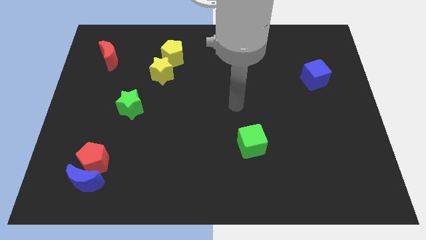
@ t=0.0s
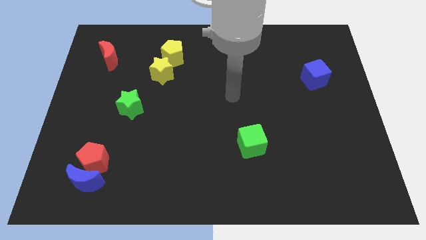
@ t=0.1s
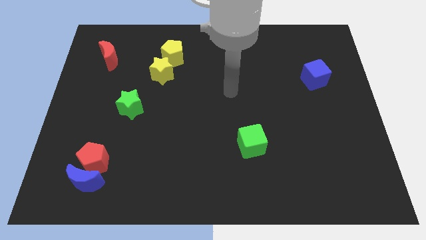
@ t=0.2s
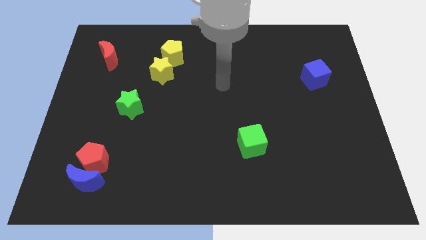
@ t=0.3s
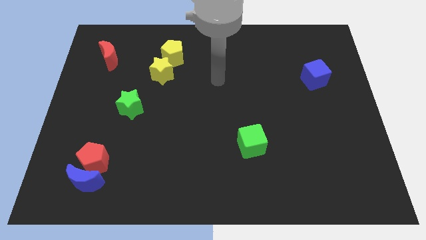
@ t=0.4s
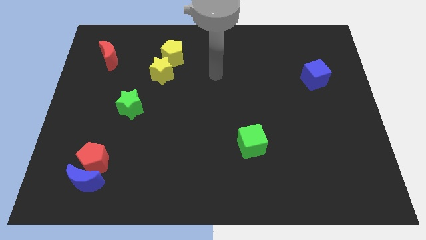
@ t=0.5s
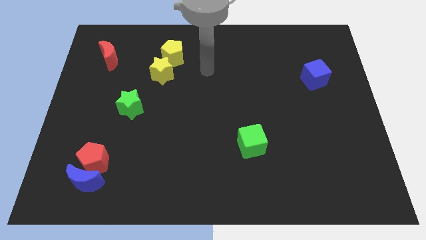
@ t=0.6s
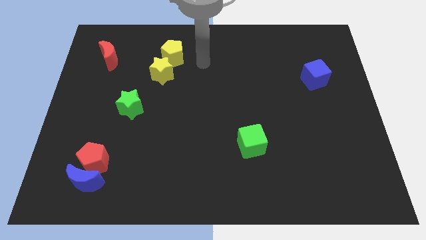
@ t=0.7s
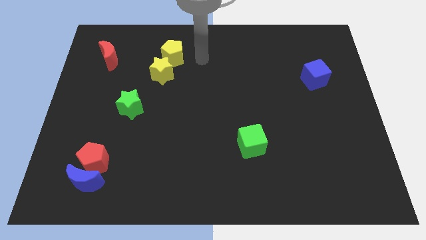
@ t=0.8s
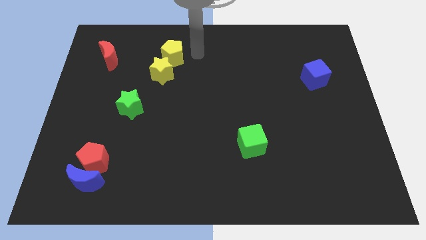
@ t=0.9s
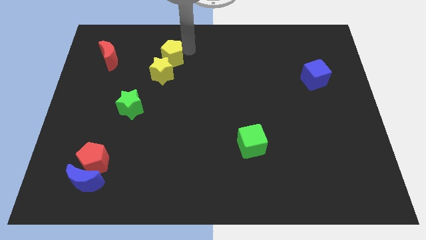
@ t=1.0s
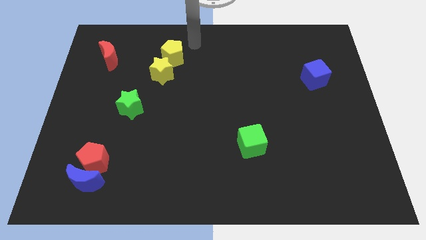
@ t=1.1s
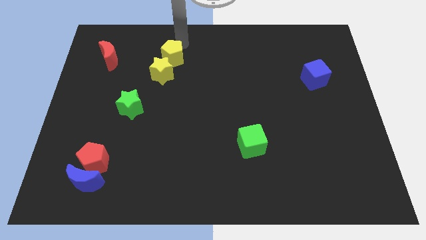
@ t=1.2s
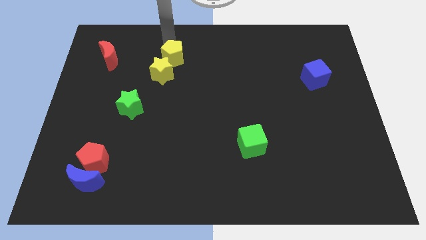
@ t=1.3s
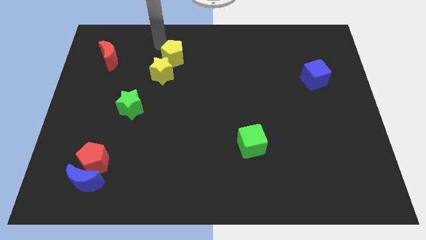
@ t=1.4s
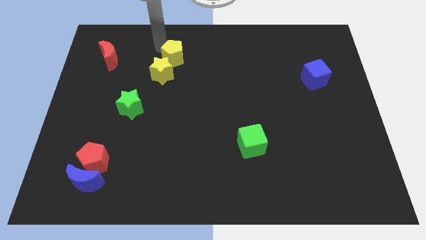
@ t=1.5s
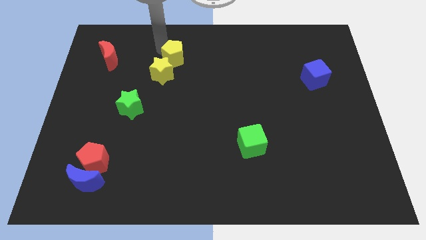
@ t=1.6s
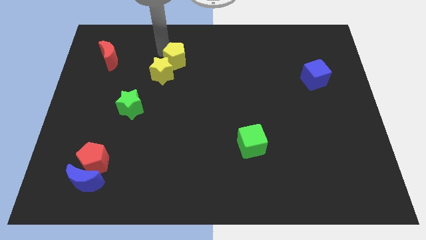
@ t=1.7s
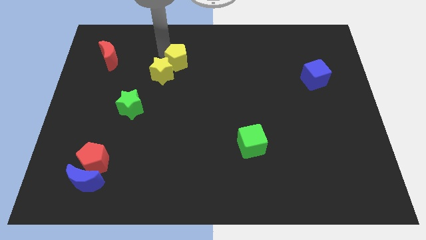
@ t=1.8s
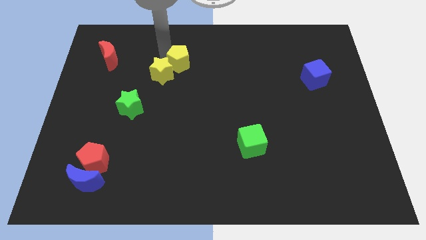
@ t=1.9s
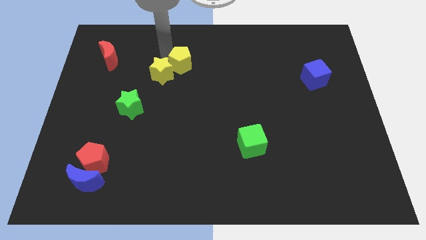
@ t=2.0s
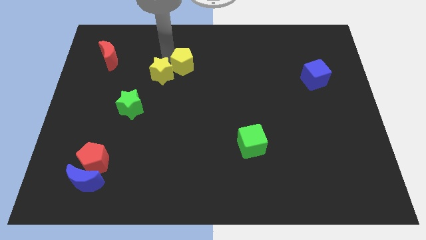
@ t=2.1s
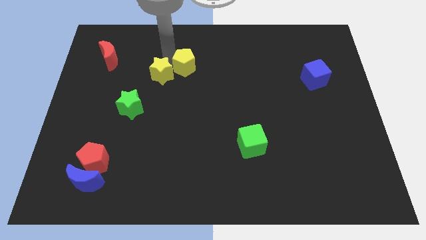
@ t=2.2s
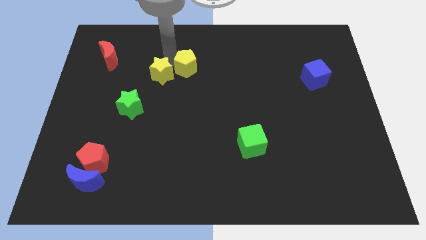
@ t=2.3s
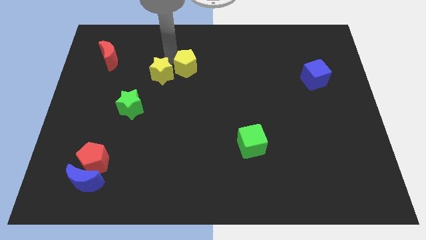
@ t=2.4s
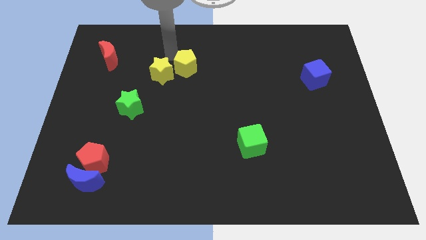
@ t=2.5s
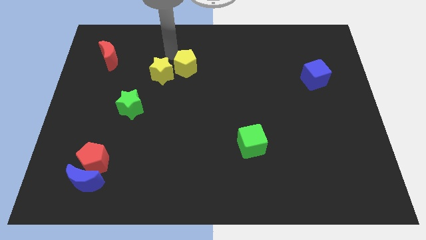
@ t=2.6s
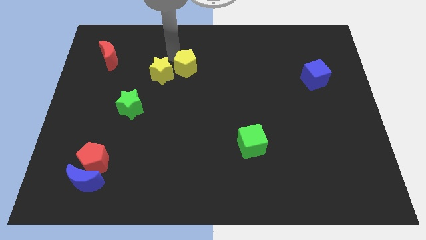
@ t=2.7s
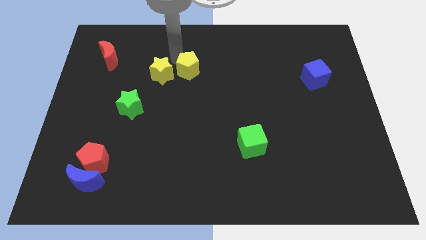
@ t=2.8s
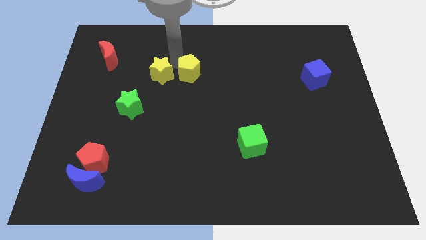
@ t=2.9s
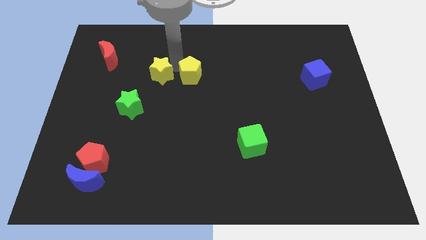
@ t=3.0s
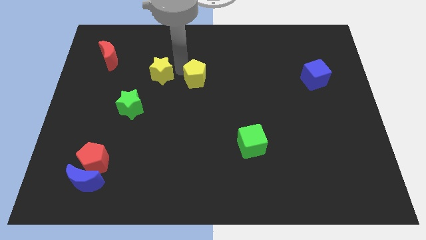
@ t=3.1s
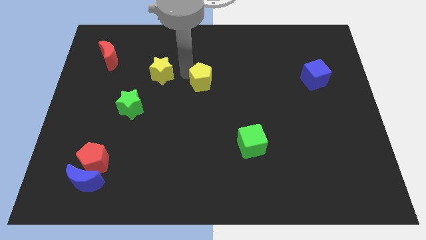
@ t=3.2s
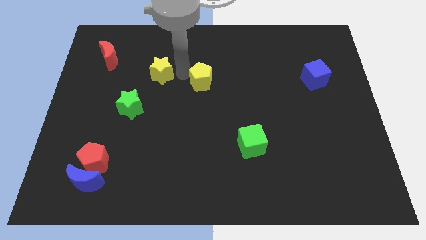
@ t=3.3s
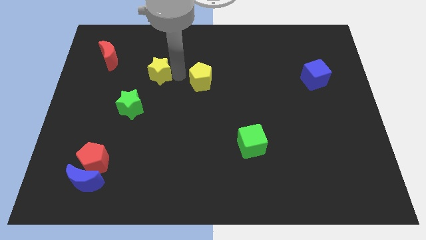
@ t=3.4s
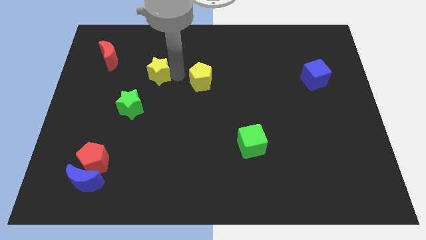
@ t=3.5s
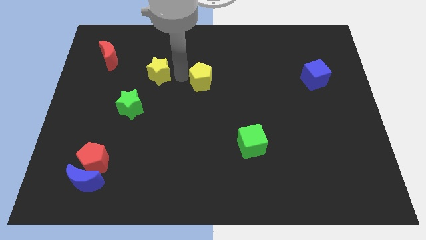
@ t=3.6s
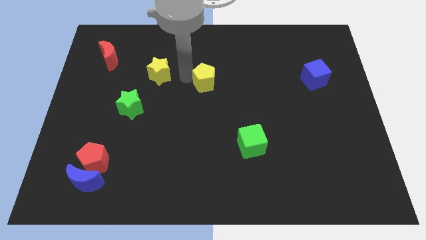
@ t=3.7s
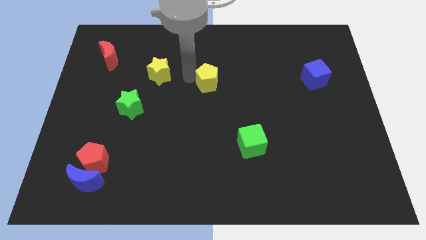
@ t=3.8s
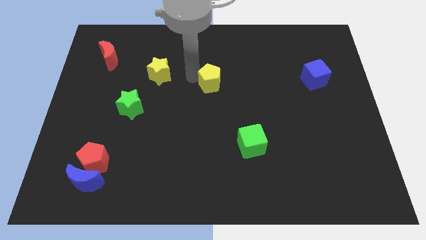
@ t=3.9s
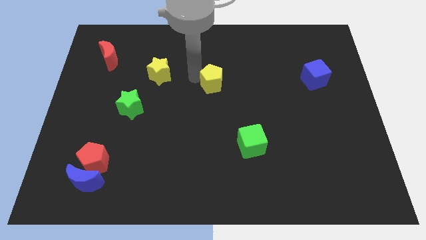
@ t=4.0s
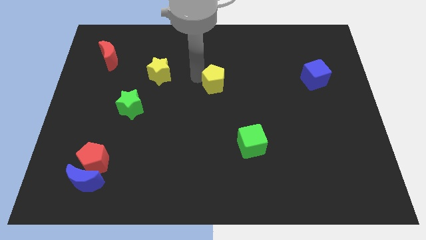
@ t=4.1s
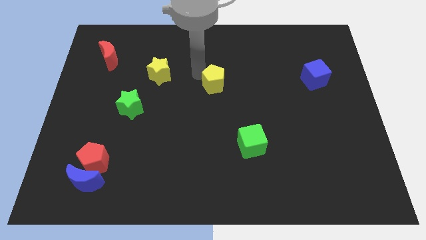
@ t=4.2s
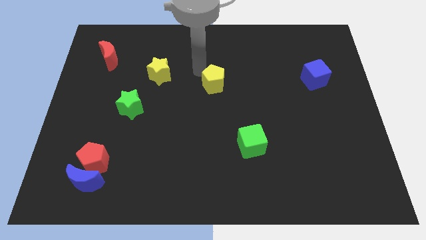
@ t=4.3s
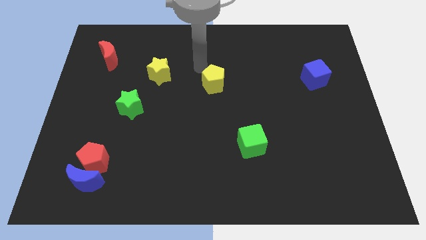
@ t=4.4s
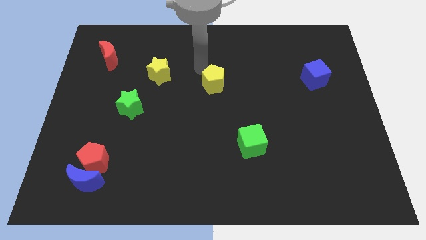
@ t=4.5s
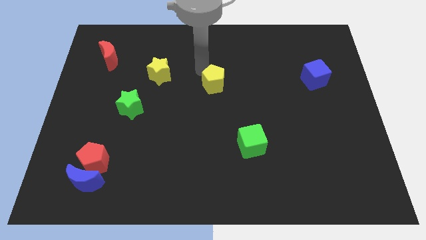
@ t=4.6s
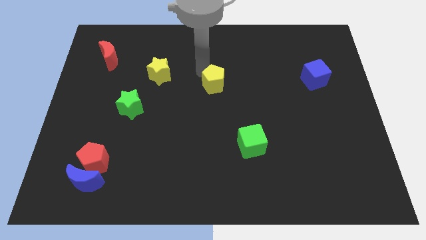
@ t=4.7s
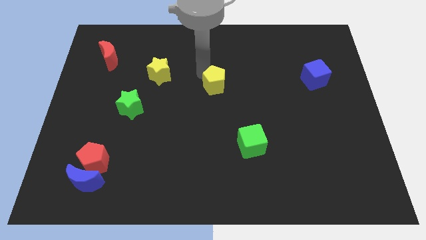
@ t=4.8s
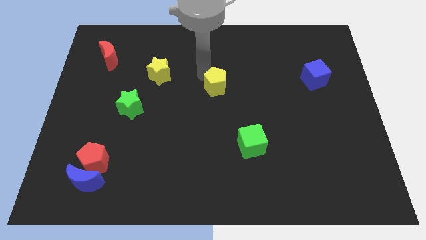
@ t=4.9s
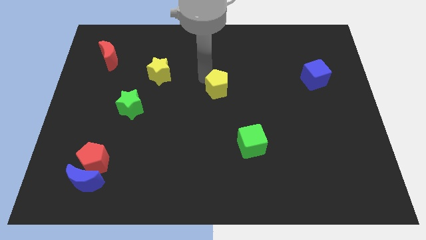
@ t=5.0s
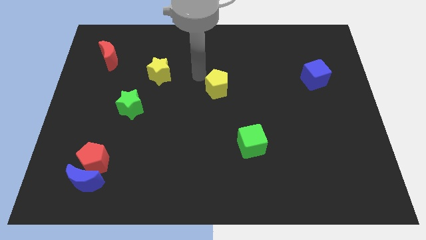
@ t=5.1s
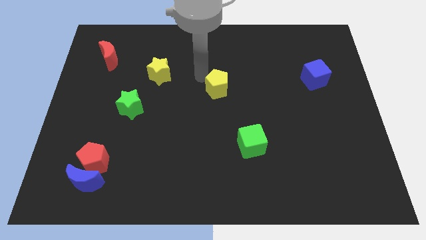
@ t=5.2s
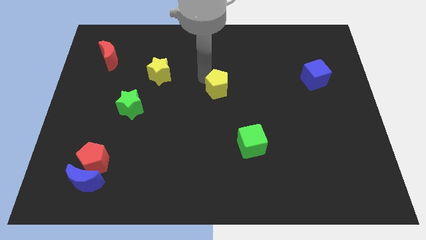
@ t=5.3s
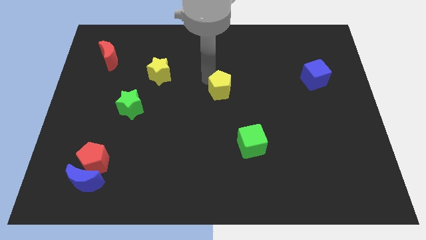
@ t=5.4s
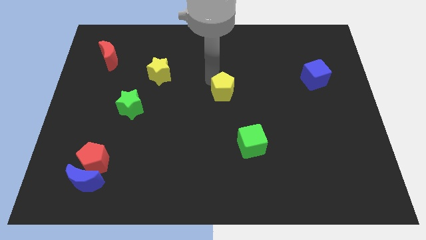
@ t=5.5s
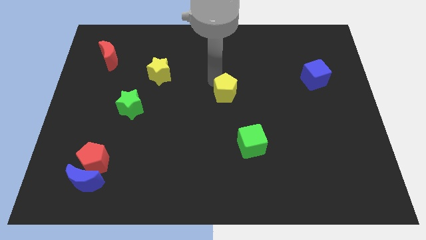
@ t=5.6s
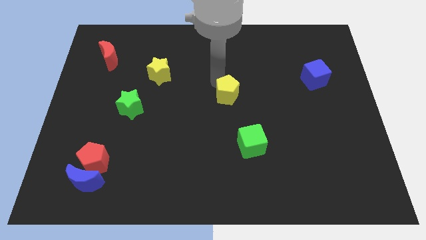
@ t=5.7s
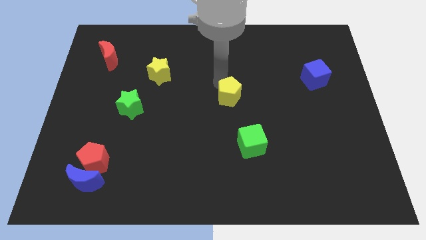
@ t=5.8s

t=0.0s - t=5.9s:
slide the yellow pentagon to the top side of the green cube

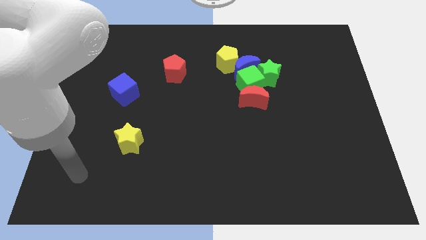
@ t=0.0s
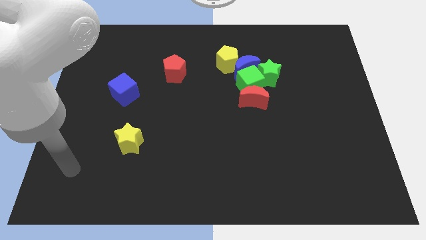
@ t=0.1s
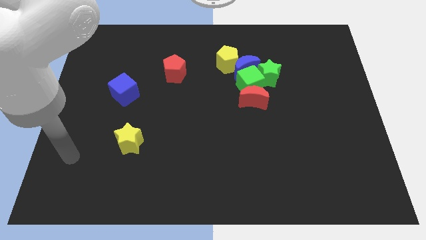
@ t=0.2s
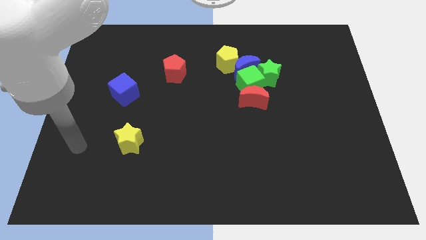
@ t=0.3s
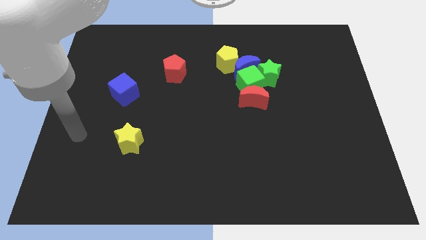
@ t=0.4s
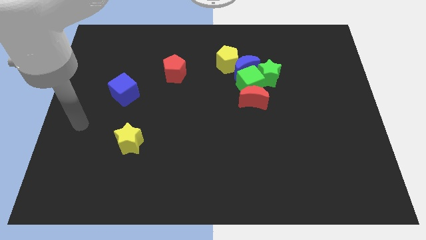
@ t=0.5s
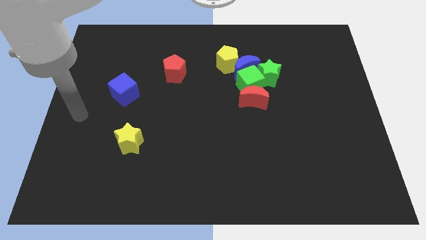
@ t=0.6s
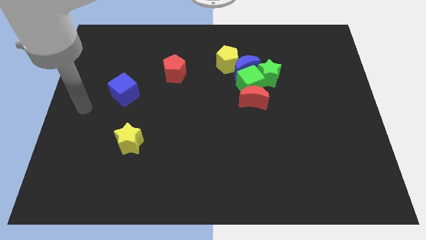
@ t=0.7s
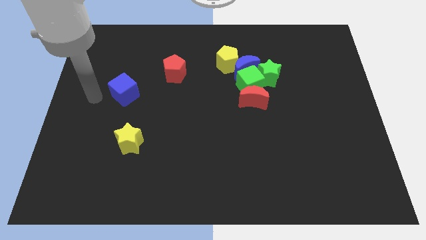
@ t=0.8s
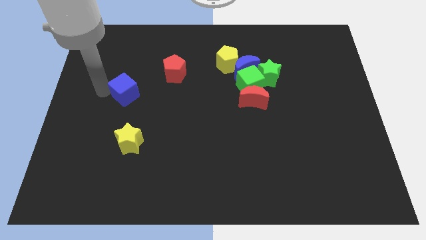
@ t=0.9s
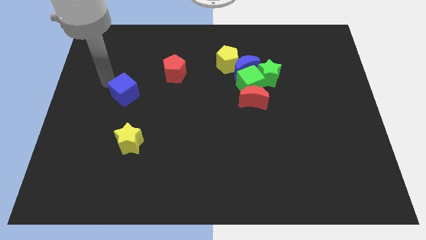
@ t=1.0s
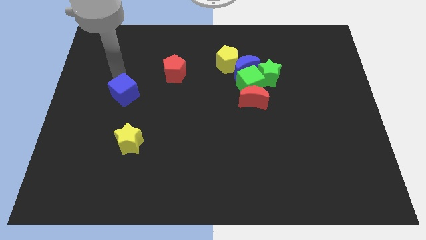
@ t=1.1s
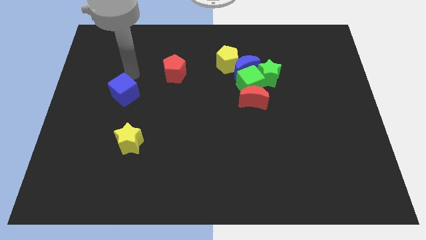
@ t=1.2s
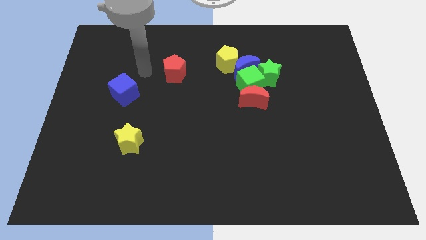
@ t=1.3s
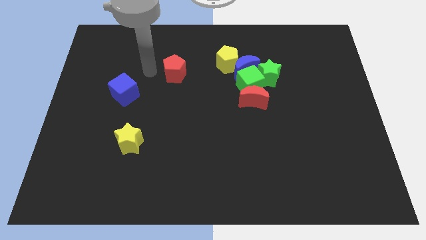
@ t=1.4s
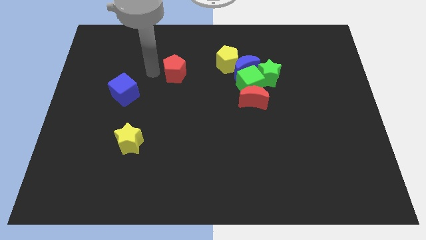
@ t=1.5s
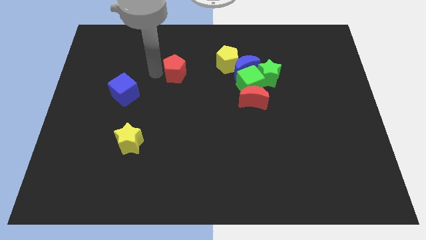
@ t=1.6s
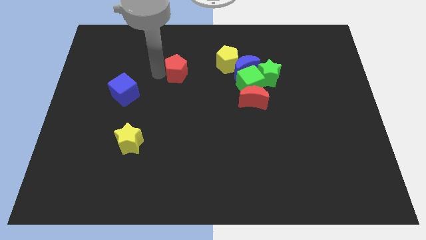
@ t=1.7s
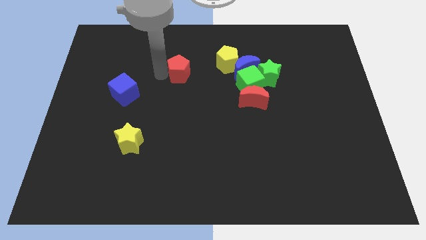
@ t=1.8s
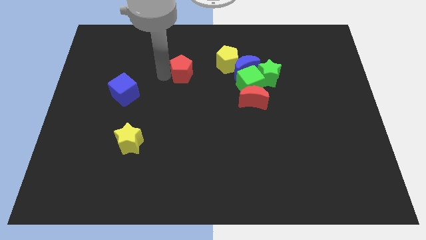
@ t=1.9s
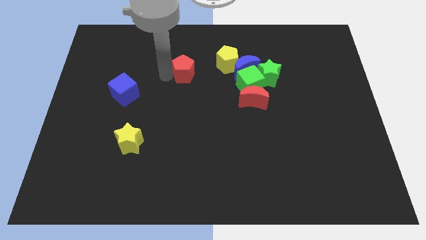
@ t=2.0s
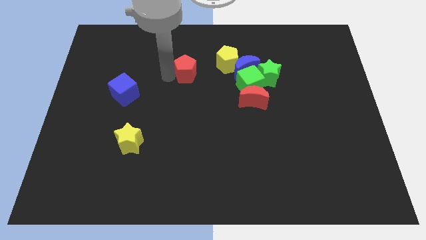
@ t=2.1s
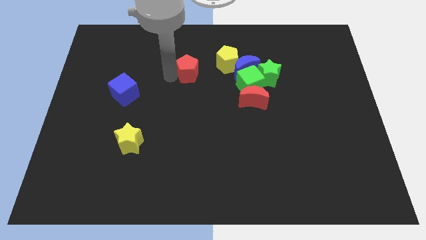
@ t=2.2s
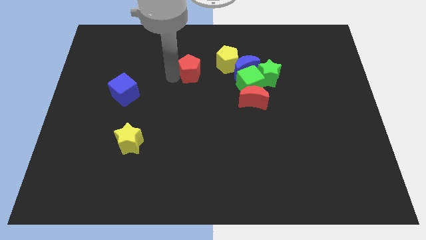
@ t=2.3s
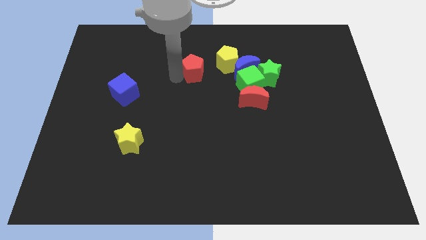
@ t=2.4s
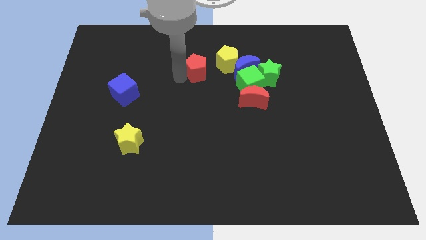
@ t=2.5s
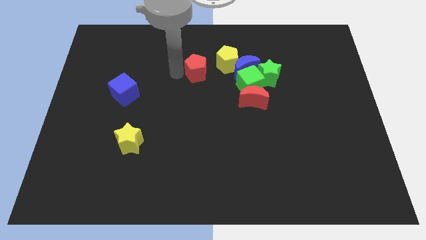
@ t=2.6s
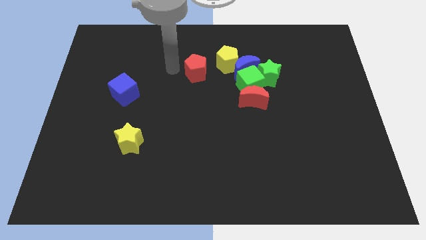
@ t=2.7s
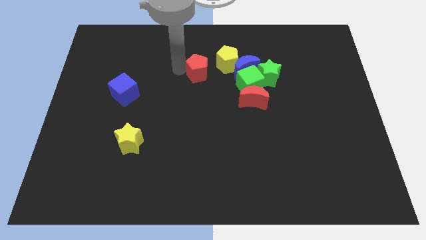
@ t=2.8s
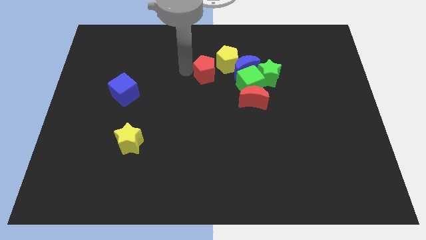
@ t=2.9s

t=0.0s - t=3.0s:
put the red pentagon to the left side of the green star
